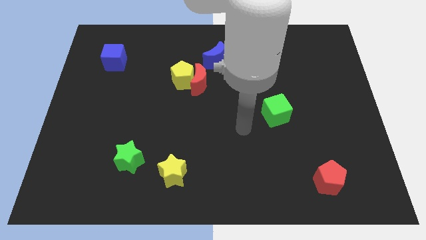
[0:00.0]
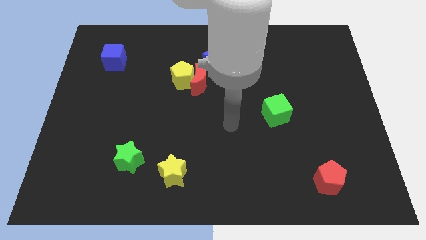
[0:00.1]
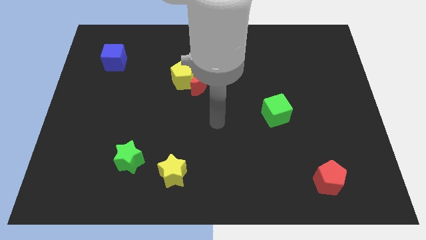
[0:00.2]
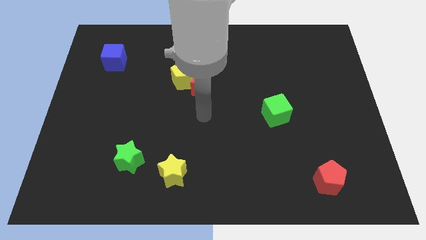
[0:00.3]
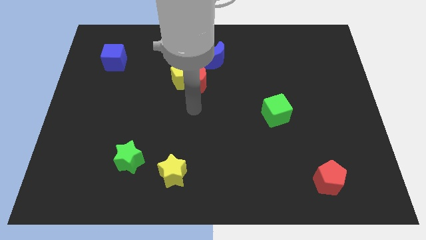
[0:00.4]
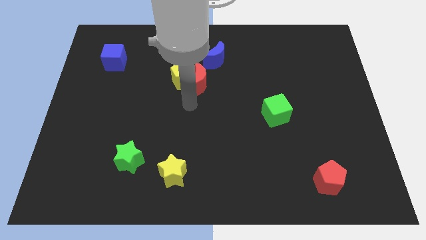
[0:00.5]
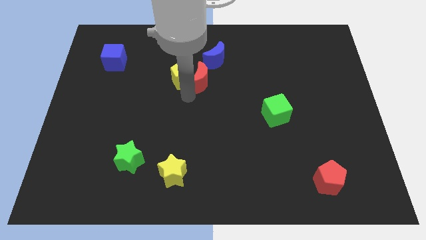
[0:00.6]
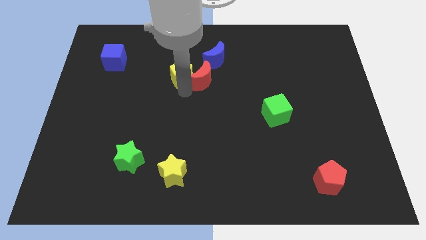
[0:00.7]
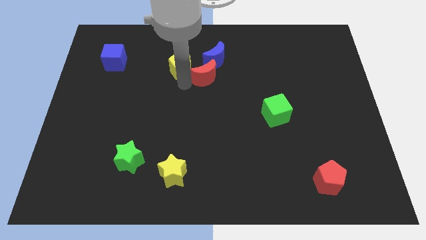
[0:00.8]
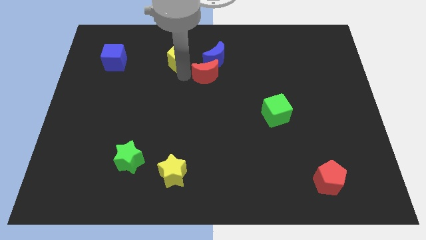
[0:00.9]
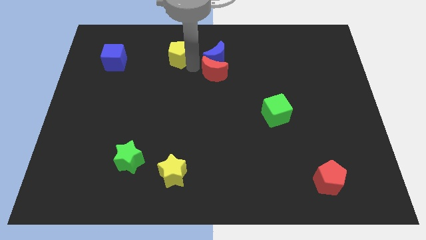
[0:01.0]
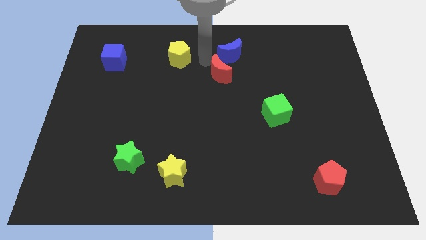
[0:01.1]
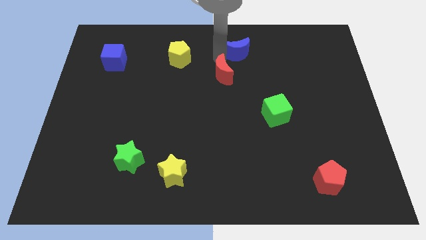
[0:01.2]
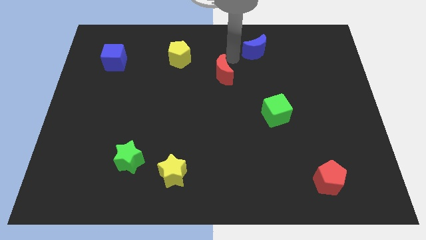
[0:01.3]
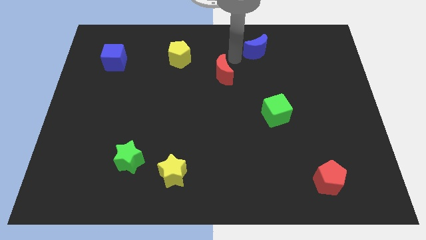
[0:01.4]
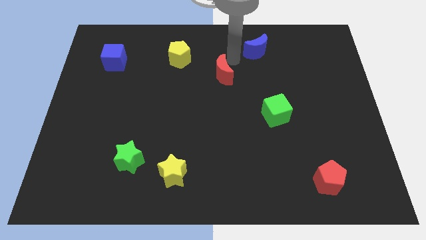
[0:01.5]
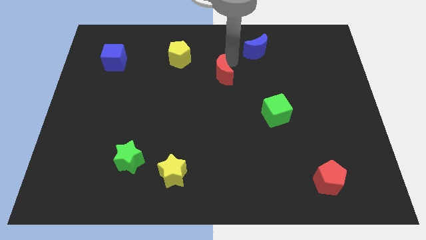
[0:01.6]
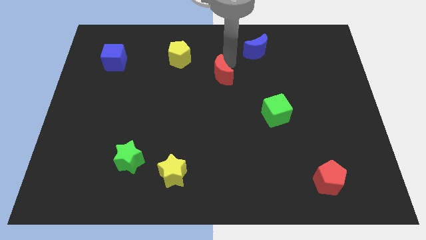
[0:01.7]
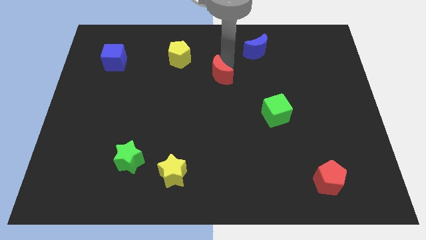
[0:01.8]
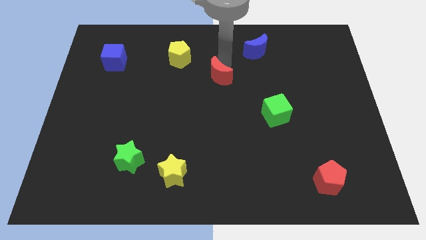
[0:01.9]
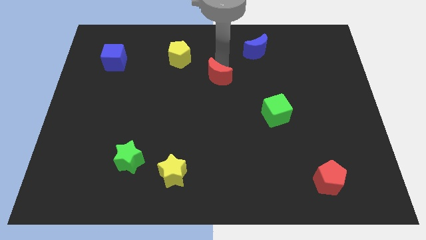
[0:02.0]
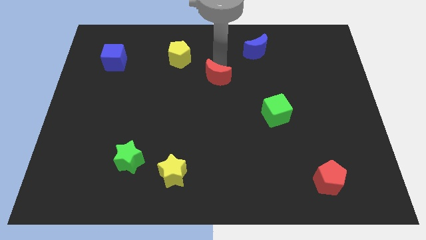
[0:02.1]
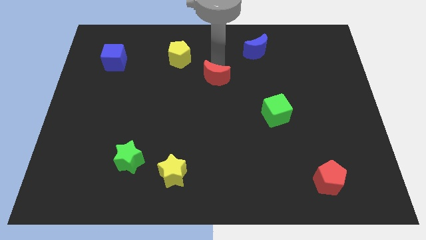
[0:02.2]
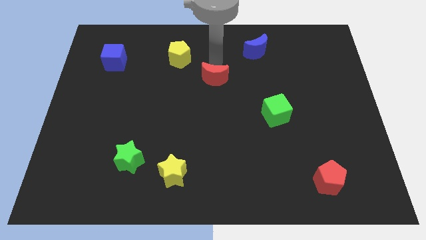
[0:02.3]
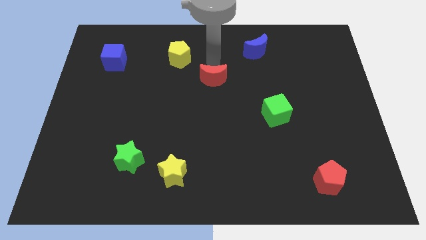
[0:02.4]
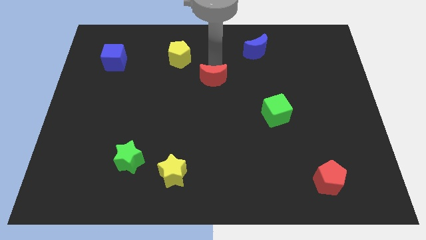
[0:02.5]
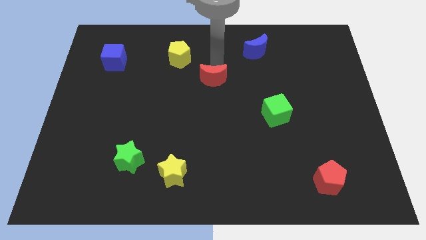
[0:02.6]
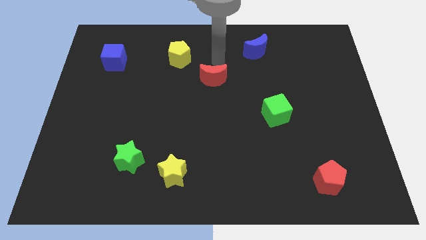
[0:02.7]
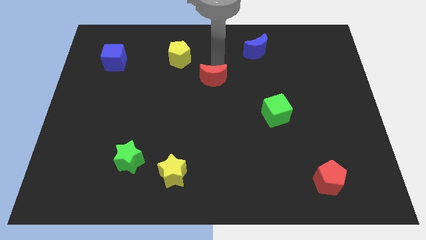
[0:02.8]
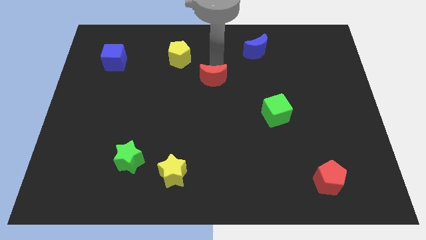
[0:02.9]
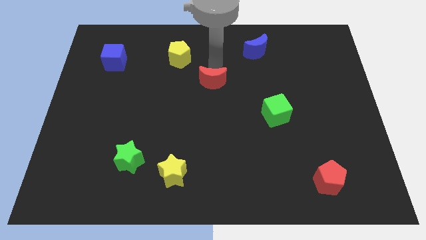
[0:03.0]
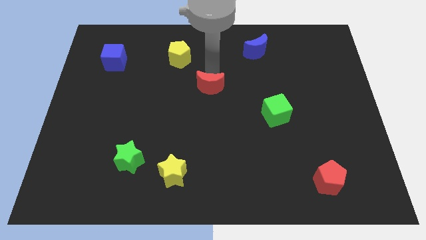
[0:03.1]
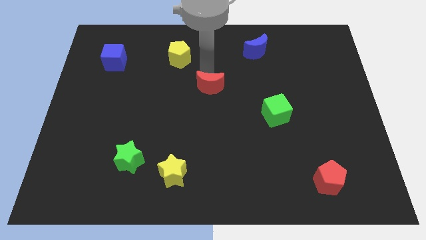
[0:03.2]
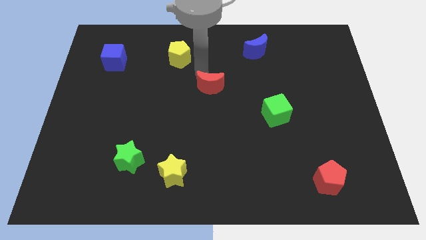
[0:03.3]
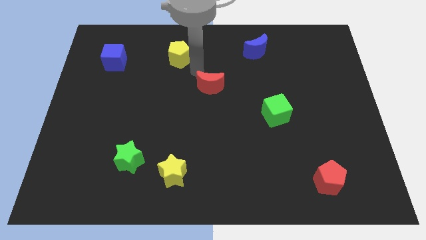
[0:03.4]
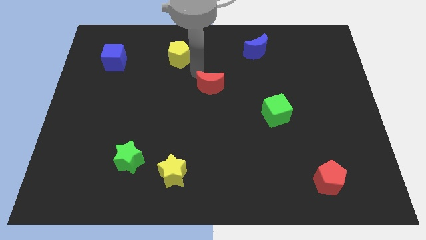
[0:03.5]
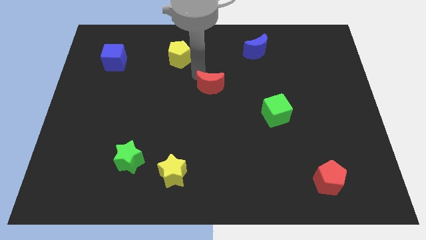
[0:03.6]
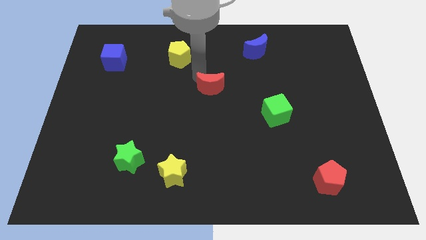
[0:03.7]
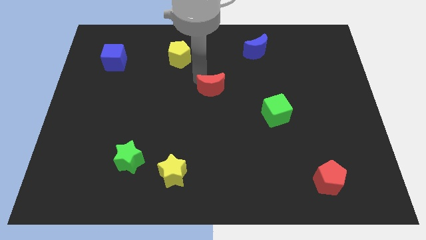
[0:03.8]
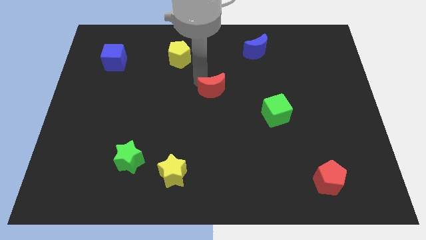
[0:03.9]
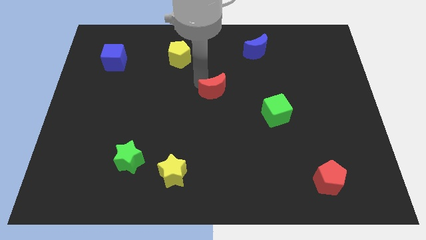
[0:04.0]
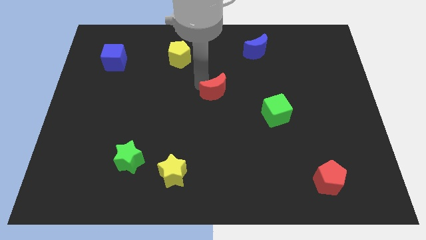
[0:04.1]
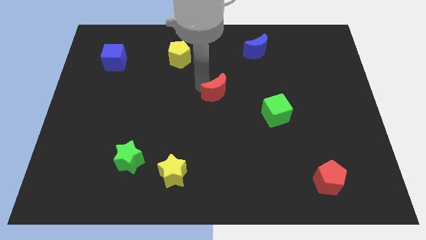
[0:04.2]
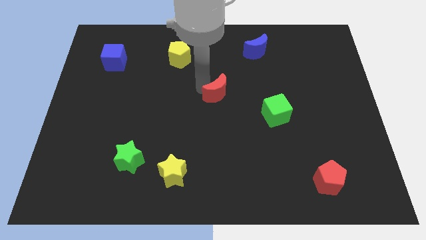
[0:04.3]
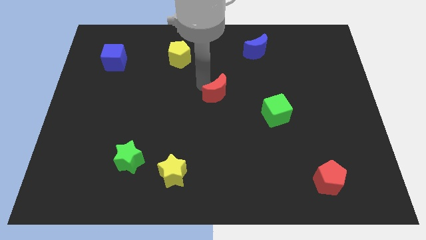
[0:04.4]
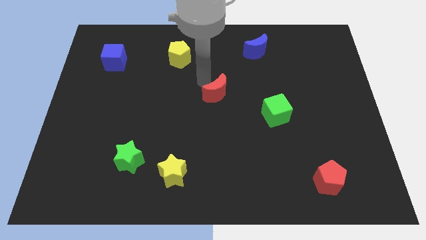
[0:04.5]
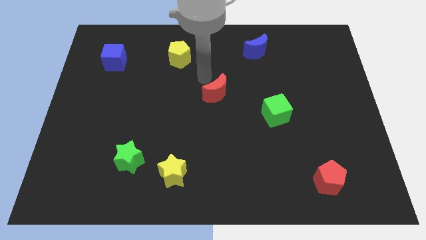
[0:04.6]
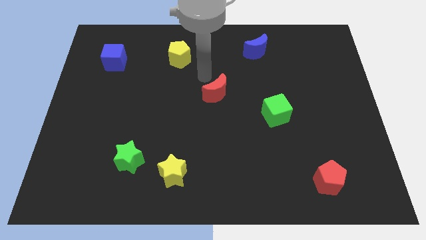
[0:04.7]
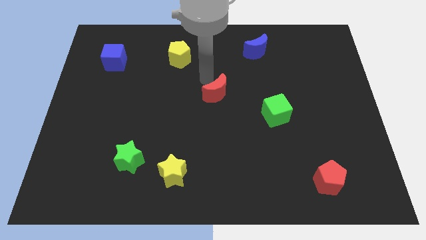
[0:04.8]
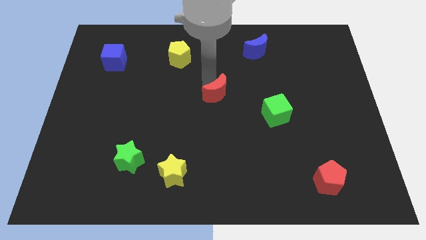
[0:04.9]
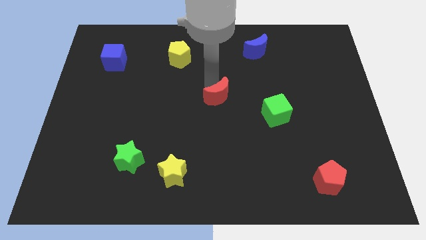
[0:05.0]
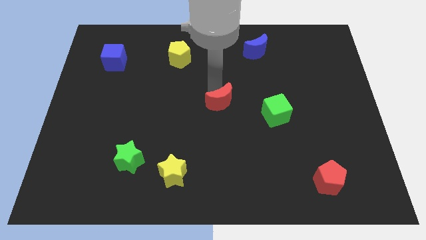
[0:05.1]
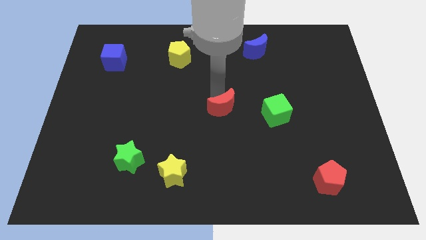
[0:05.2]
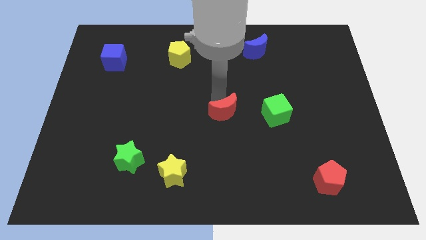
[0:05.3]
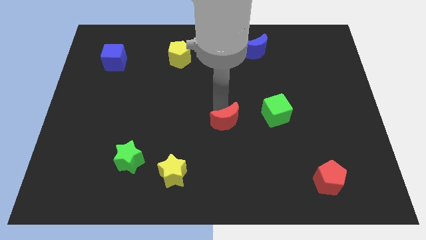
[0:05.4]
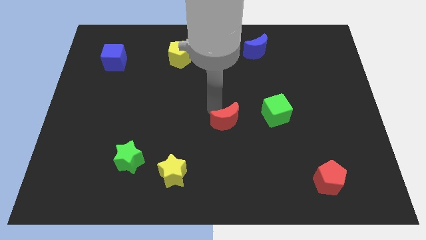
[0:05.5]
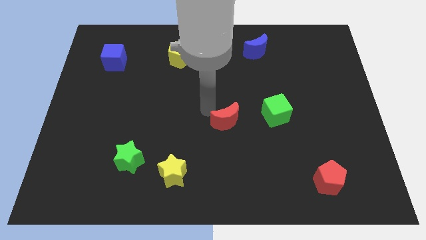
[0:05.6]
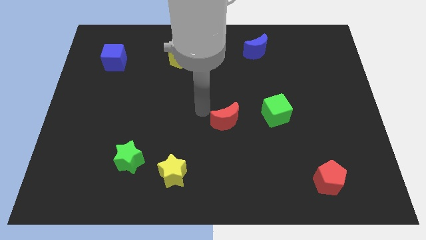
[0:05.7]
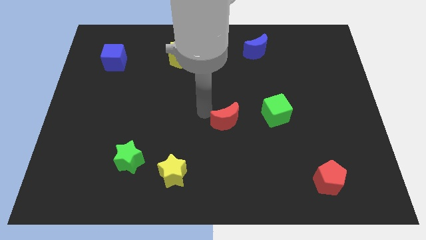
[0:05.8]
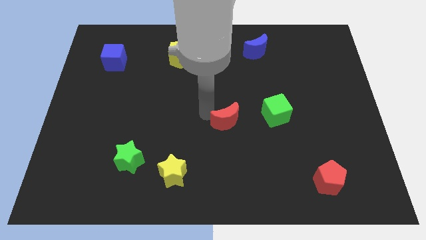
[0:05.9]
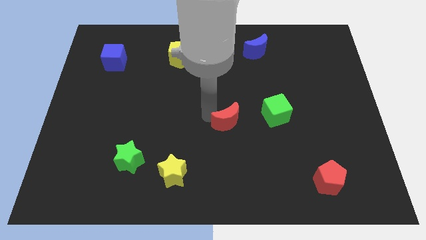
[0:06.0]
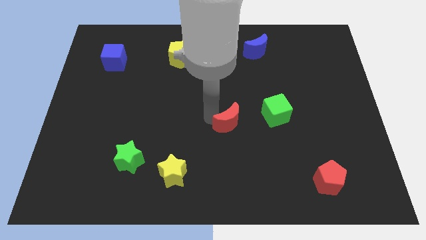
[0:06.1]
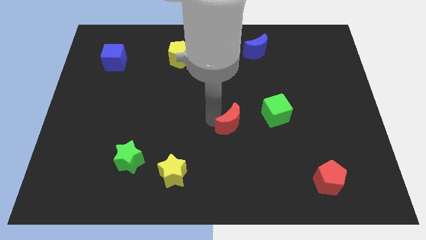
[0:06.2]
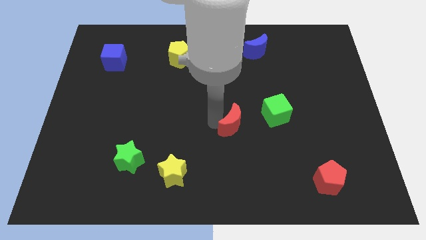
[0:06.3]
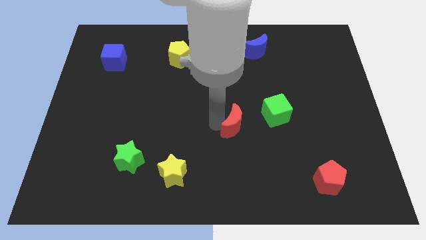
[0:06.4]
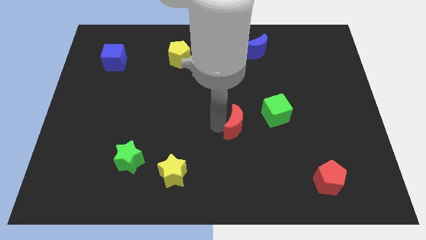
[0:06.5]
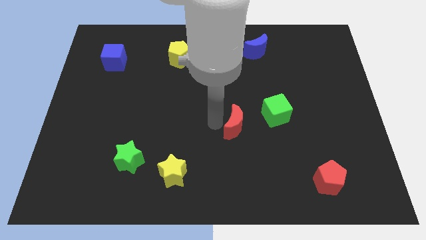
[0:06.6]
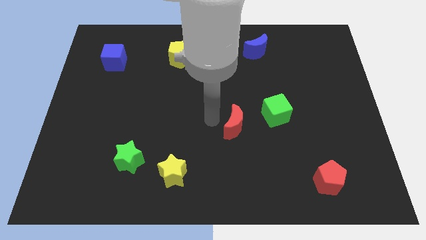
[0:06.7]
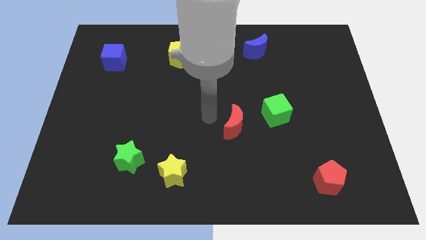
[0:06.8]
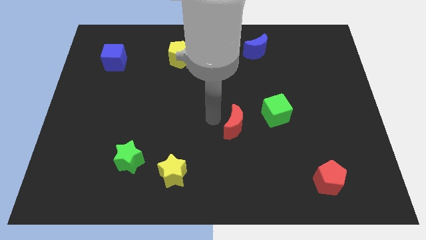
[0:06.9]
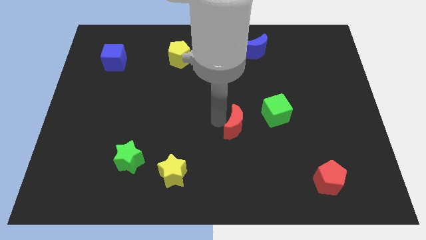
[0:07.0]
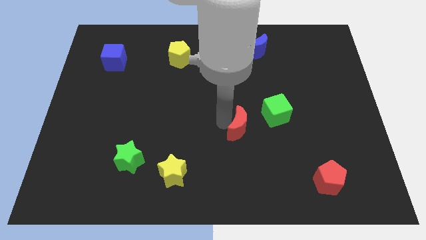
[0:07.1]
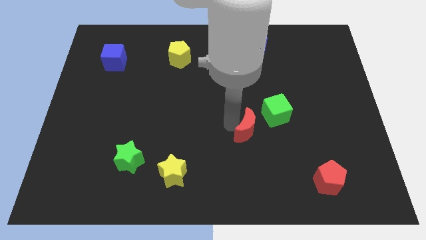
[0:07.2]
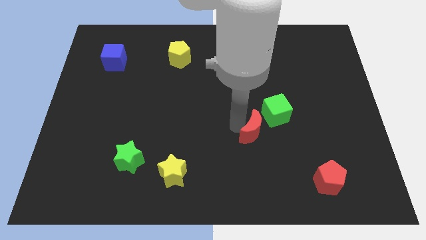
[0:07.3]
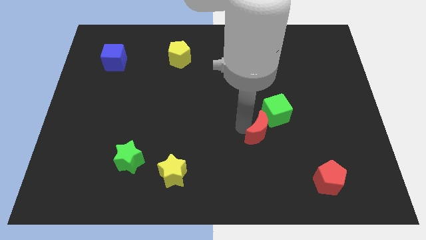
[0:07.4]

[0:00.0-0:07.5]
move the red moon downwards and right diagonally

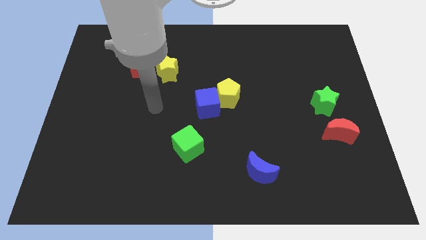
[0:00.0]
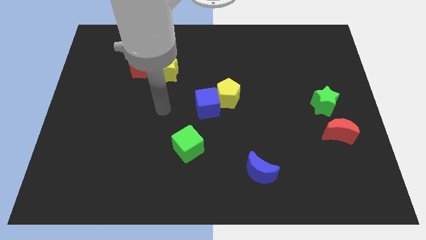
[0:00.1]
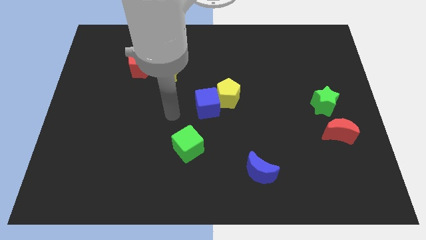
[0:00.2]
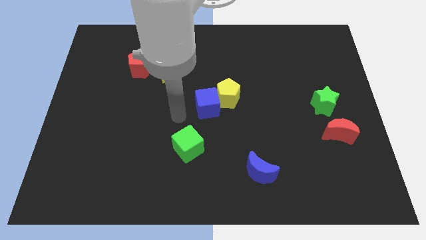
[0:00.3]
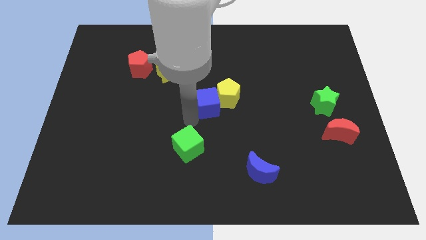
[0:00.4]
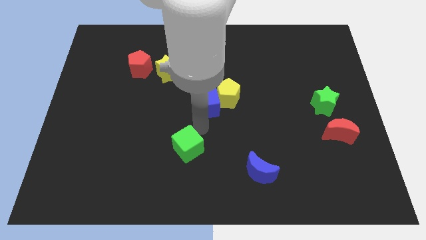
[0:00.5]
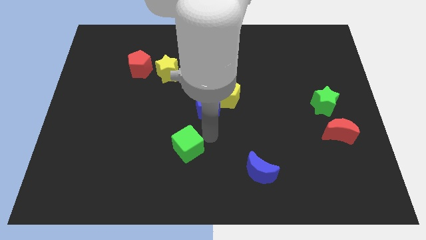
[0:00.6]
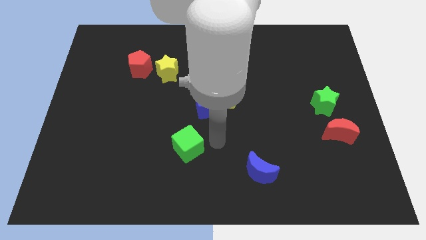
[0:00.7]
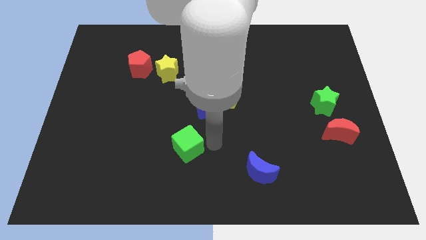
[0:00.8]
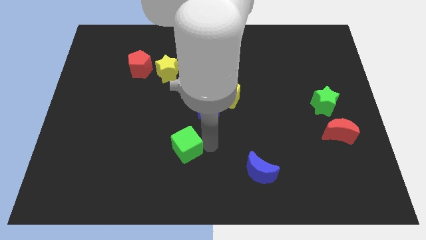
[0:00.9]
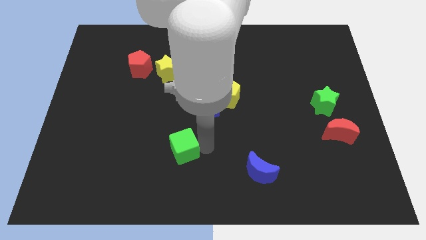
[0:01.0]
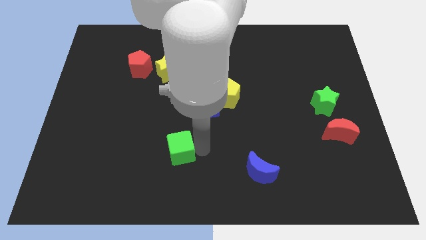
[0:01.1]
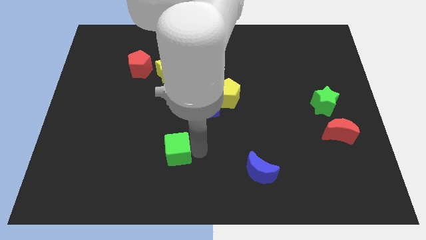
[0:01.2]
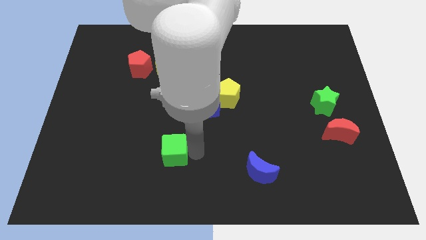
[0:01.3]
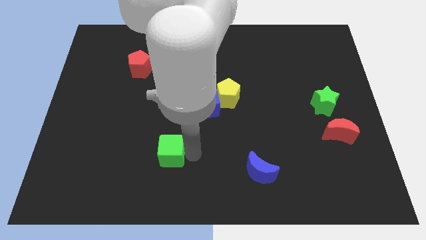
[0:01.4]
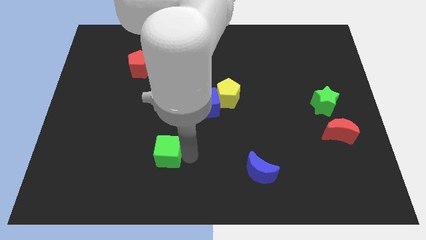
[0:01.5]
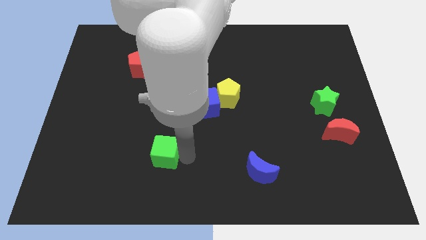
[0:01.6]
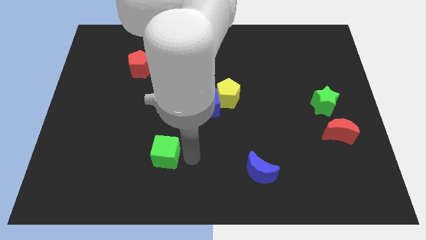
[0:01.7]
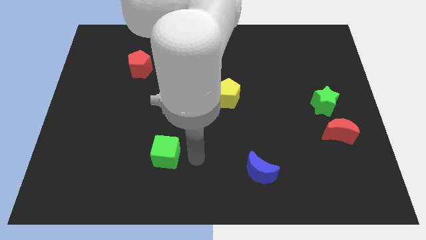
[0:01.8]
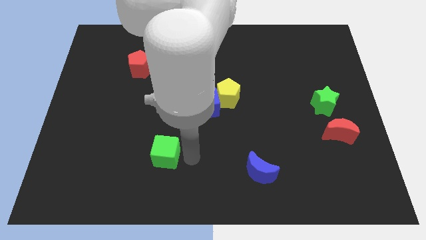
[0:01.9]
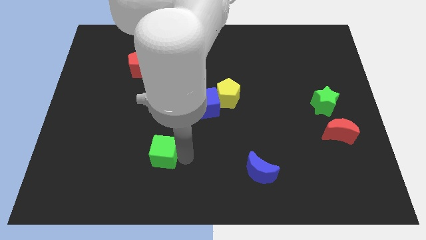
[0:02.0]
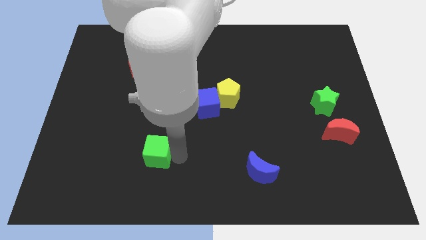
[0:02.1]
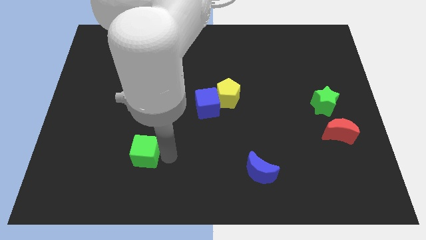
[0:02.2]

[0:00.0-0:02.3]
move the green cube a little bit left
